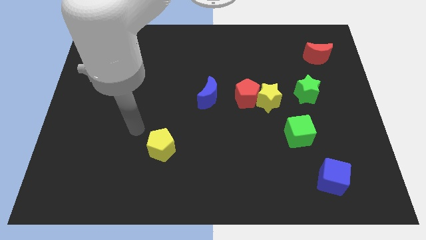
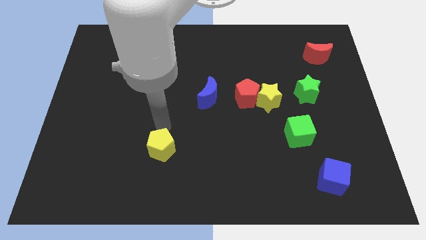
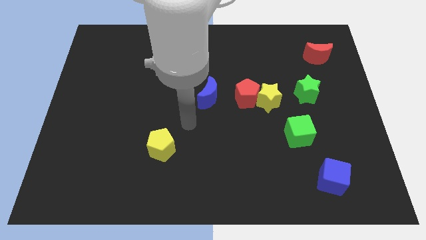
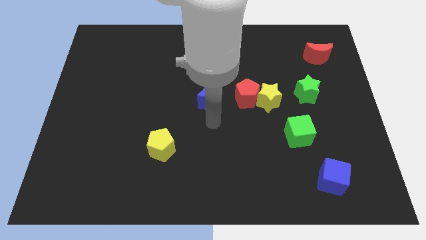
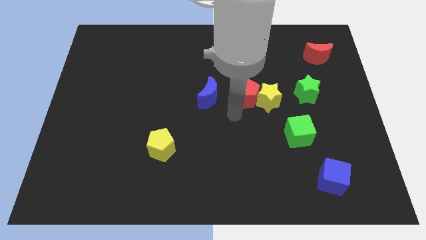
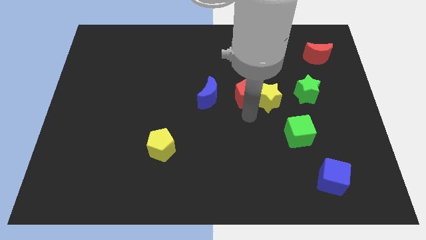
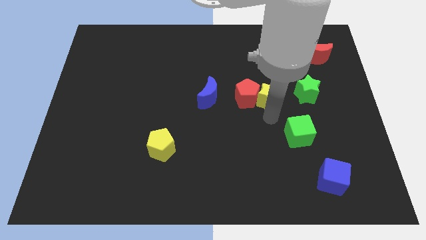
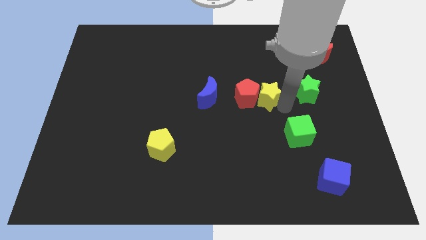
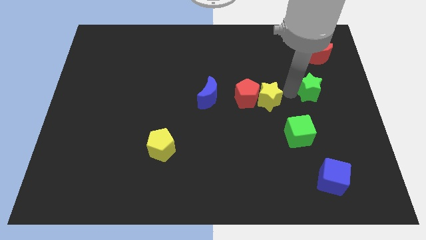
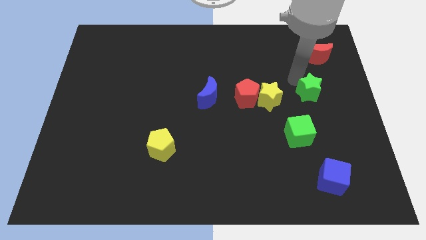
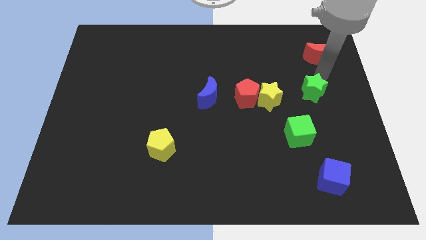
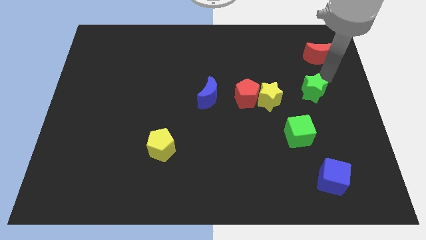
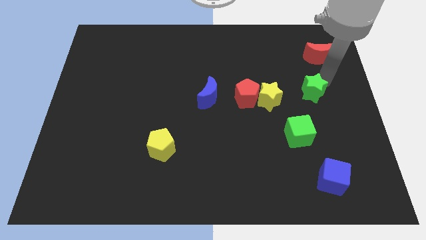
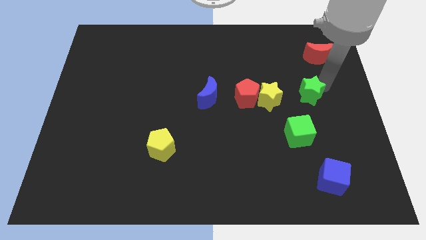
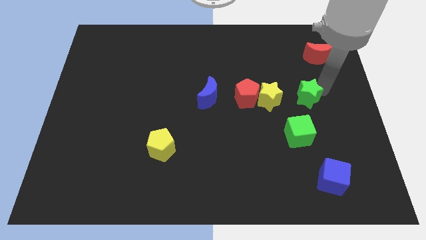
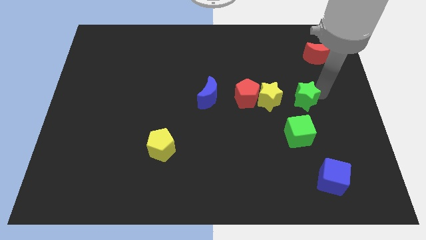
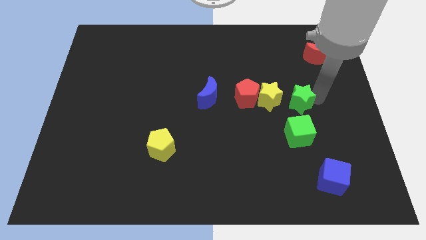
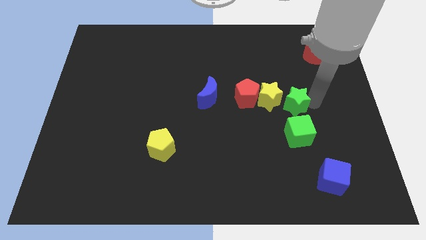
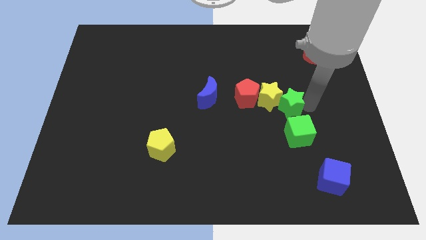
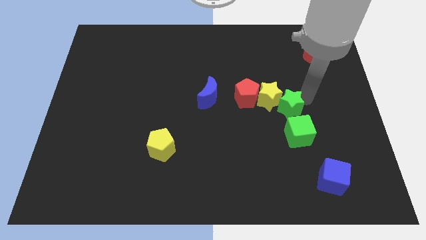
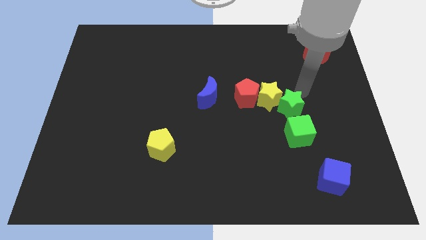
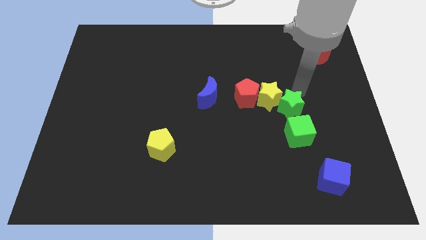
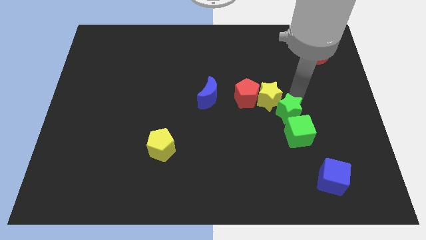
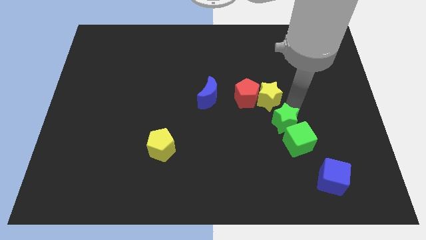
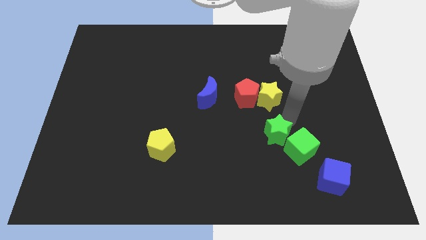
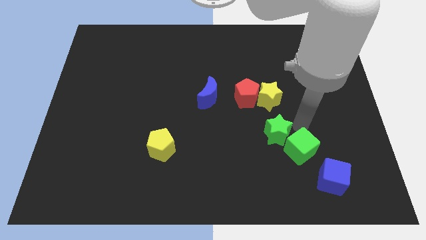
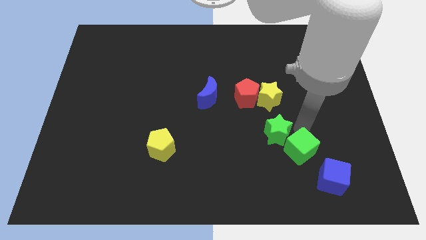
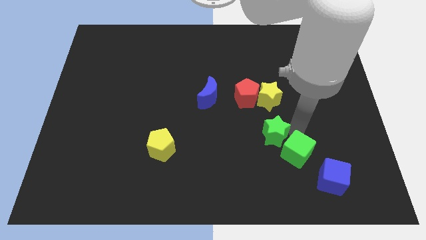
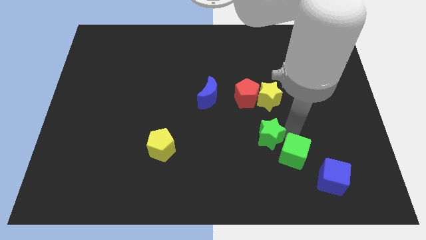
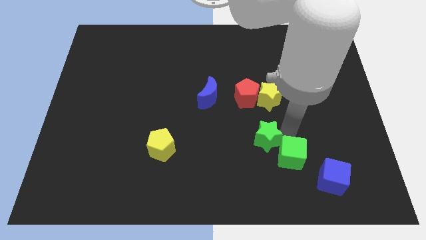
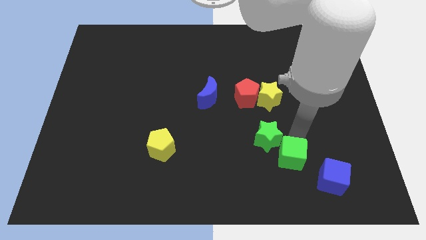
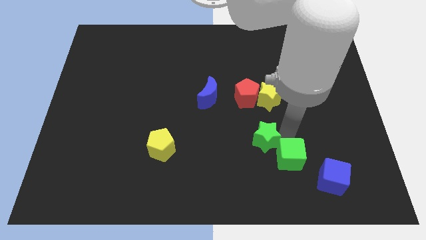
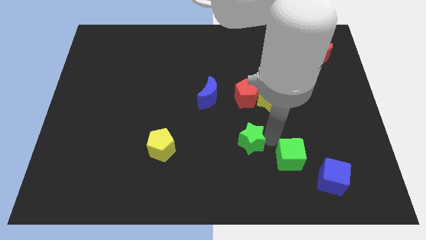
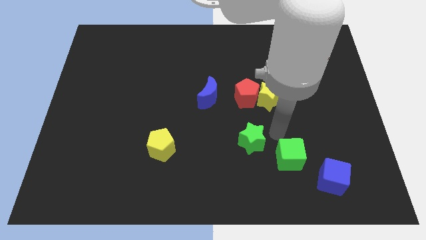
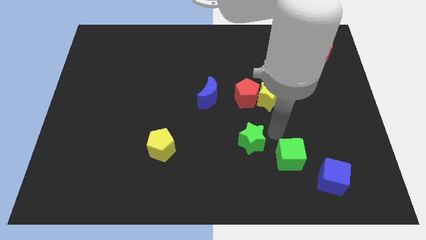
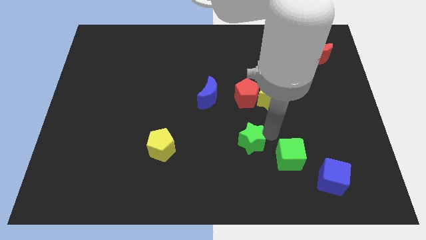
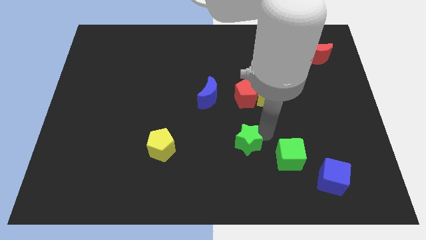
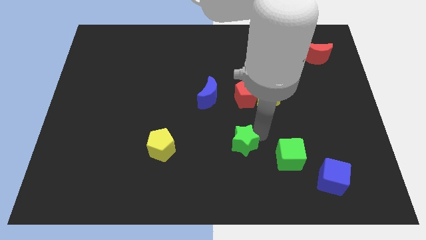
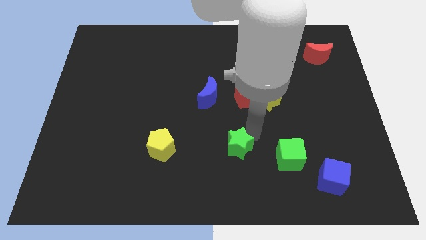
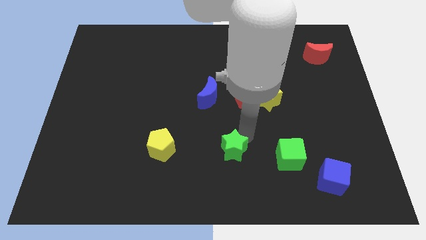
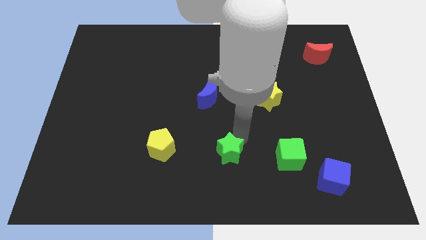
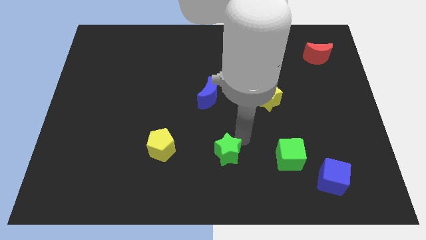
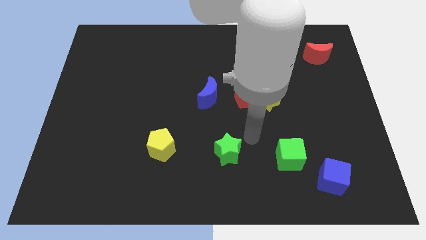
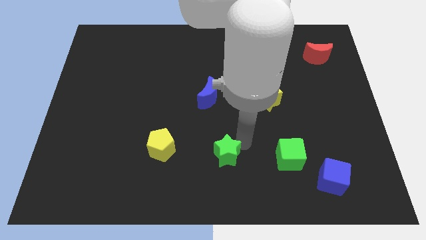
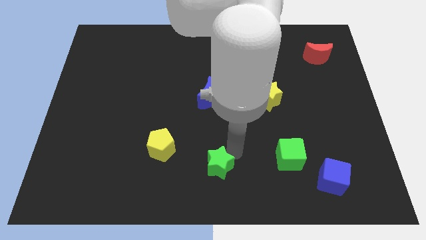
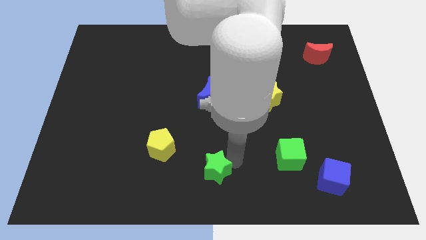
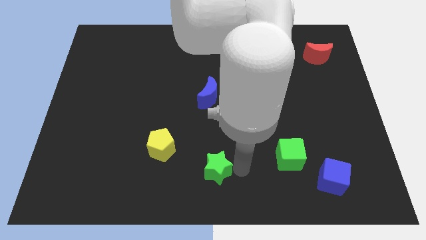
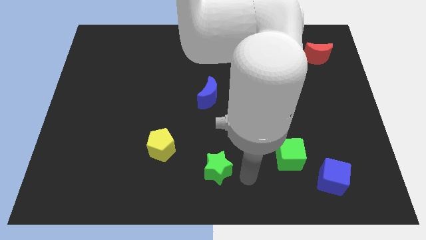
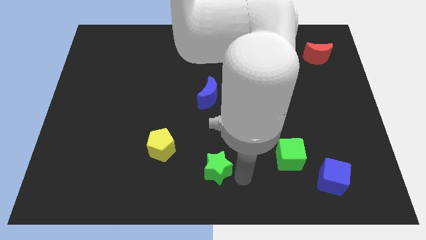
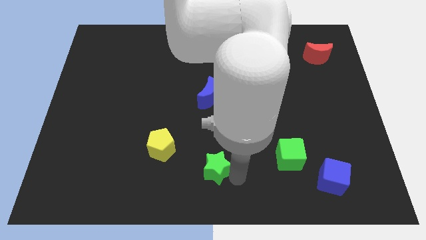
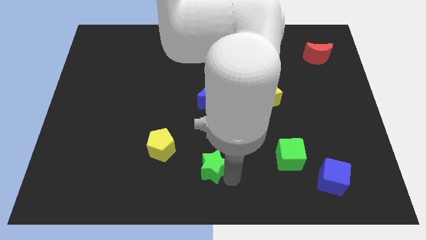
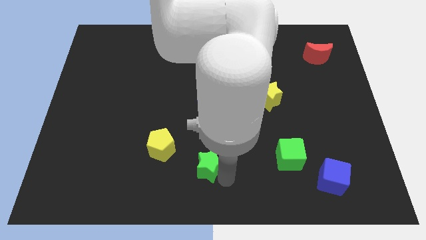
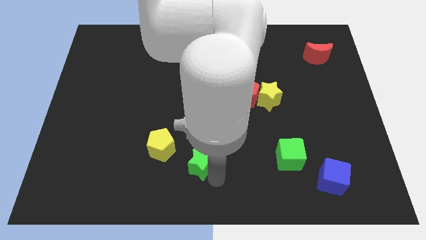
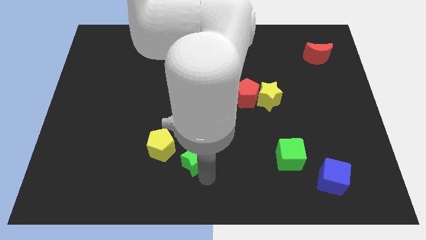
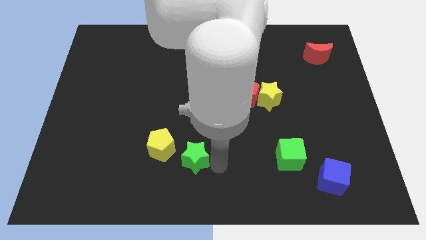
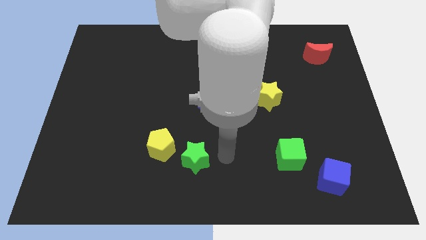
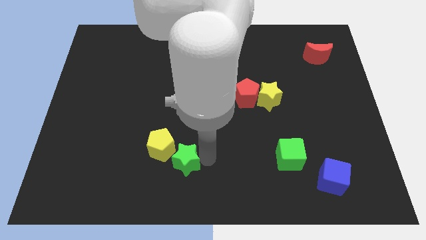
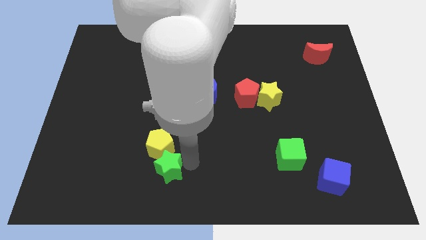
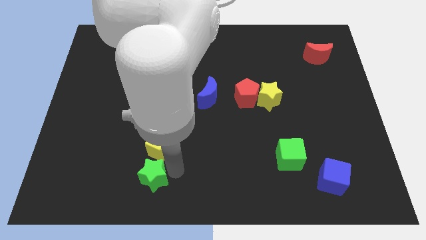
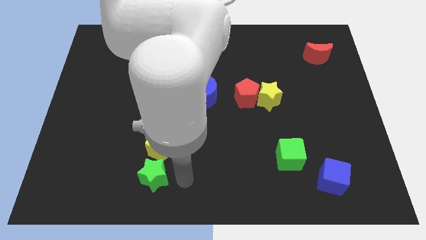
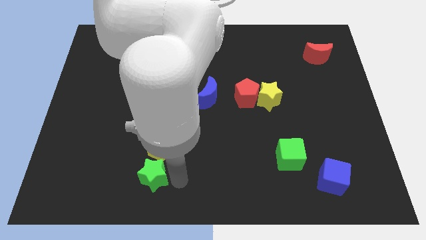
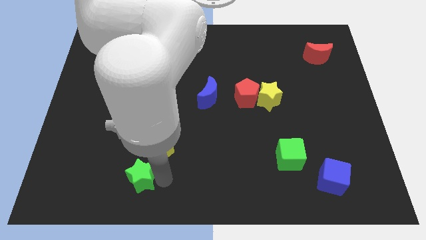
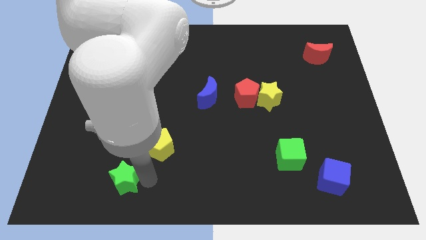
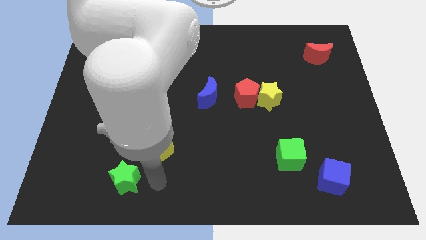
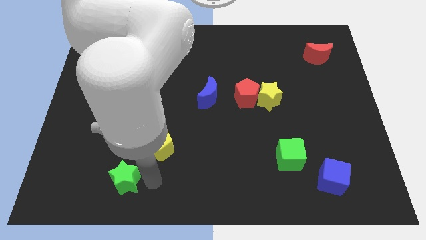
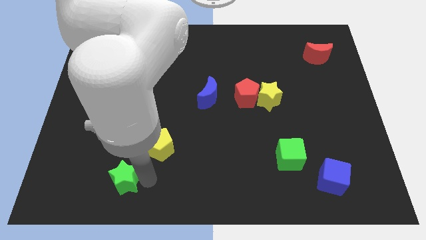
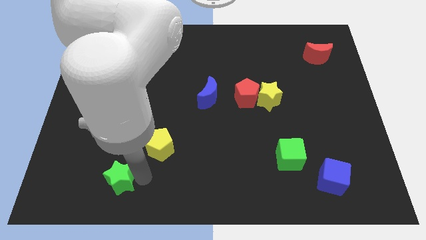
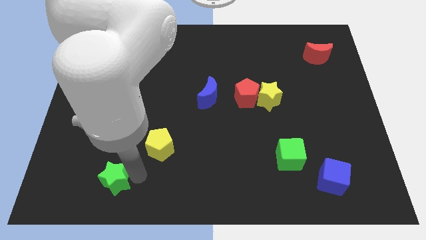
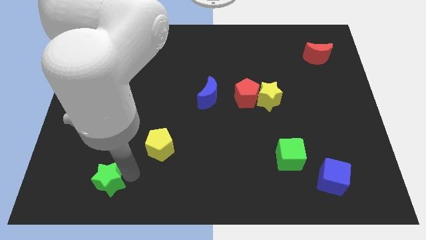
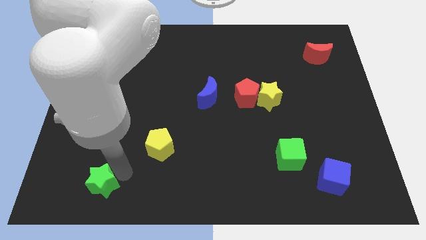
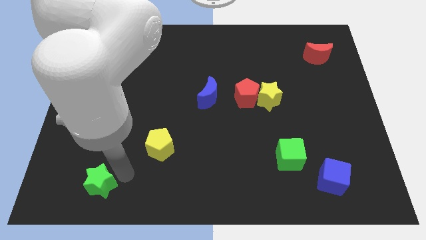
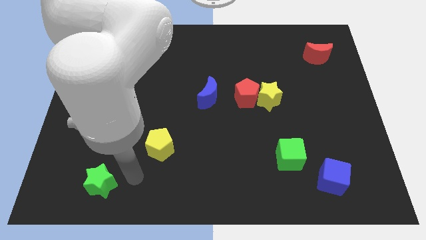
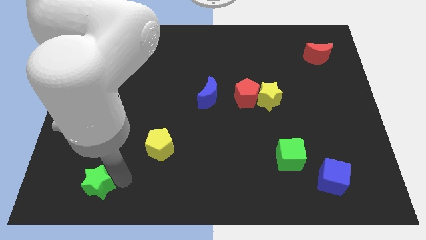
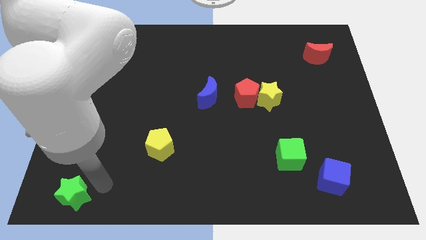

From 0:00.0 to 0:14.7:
move the green star to the bottom left corner
